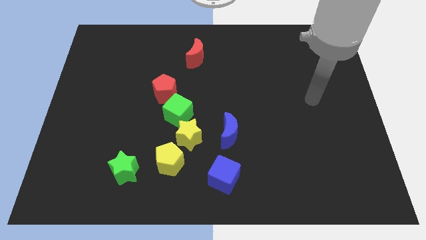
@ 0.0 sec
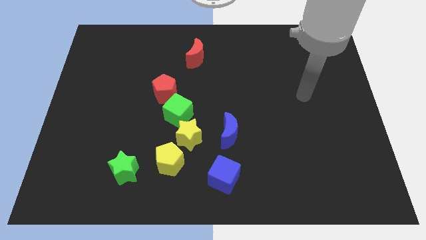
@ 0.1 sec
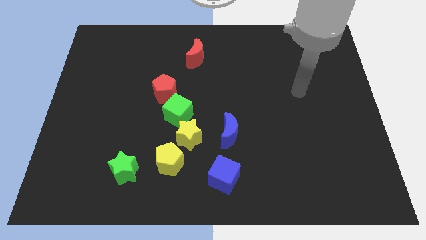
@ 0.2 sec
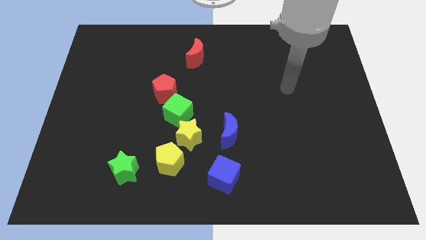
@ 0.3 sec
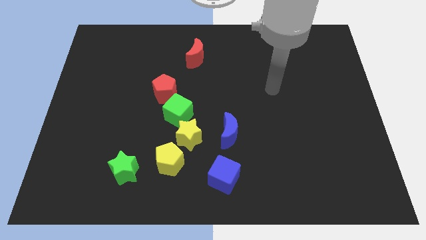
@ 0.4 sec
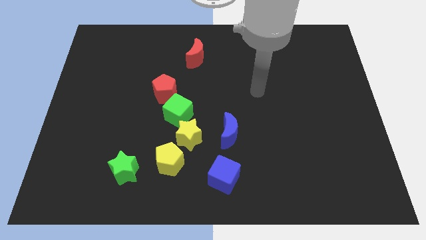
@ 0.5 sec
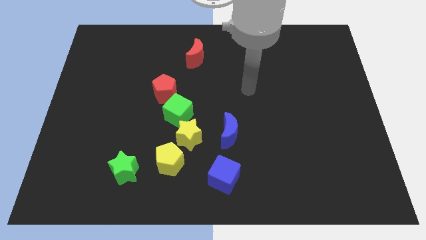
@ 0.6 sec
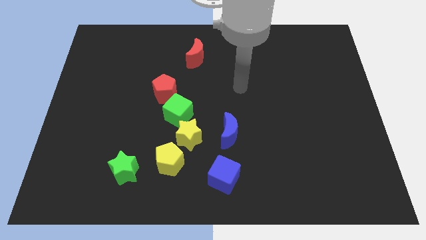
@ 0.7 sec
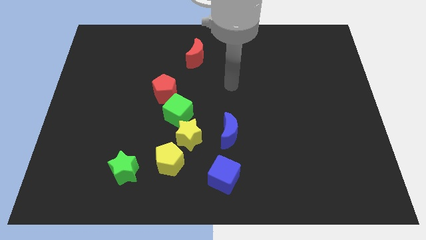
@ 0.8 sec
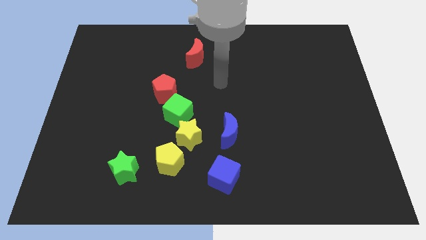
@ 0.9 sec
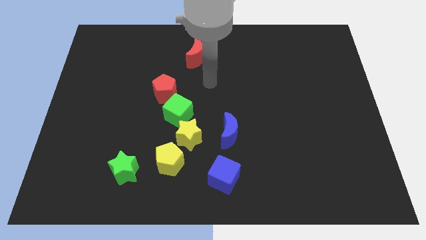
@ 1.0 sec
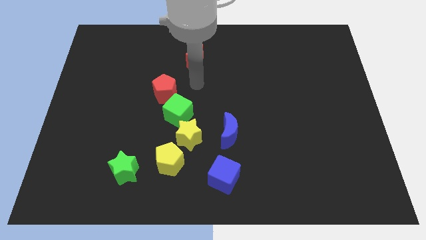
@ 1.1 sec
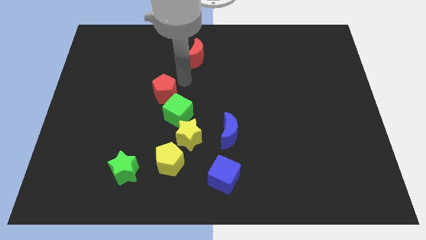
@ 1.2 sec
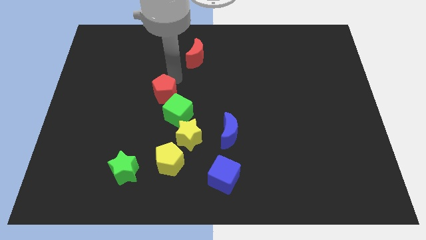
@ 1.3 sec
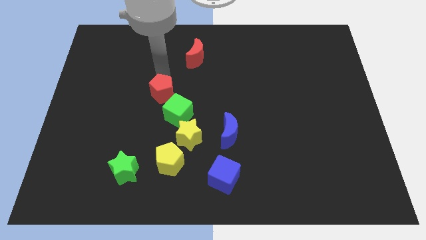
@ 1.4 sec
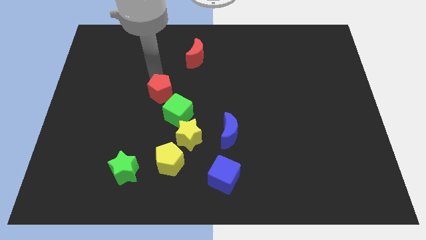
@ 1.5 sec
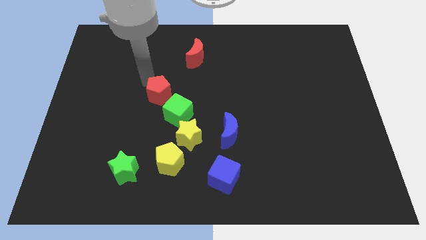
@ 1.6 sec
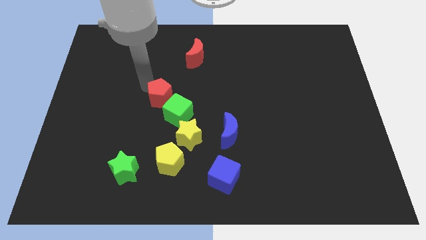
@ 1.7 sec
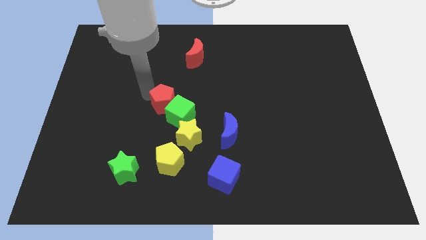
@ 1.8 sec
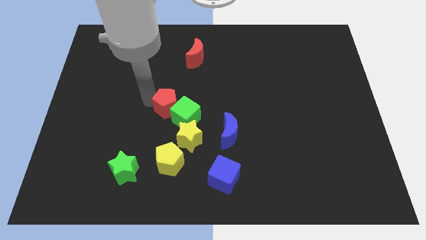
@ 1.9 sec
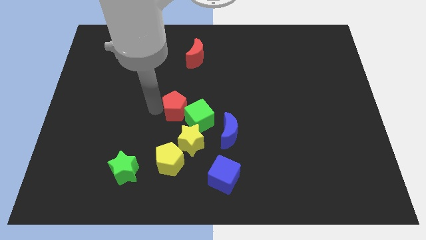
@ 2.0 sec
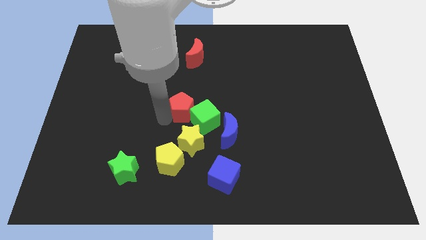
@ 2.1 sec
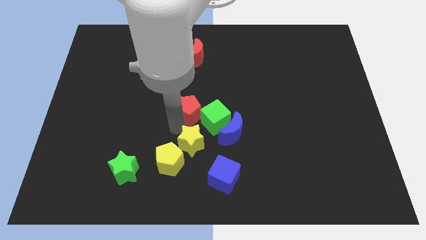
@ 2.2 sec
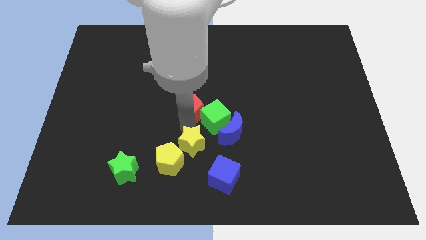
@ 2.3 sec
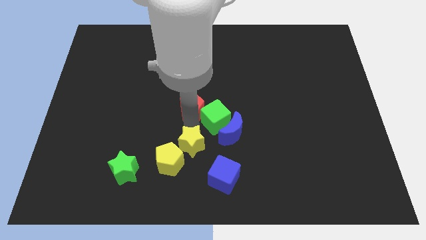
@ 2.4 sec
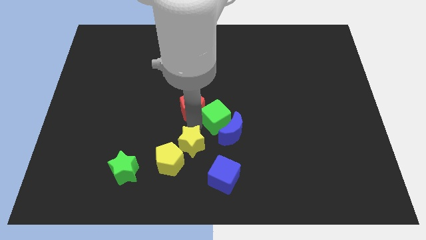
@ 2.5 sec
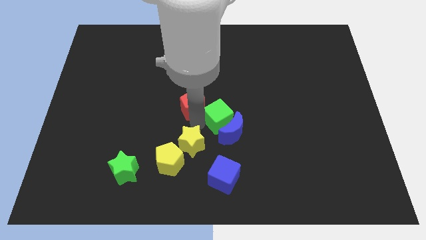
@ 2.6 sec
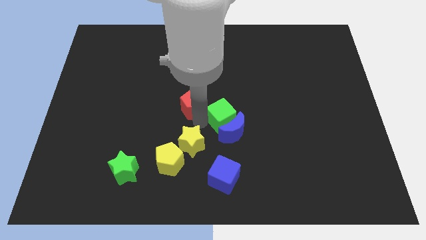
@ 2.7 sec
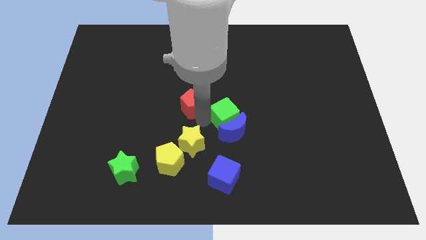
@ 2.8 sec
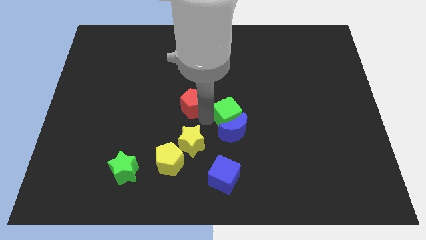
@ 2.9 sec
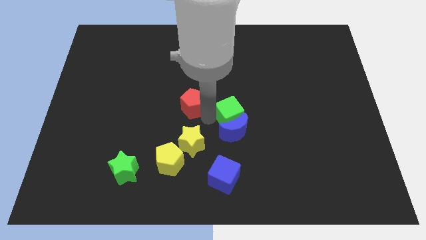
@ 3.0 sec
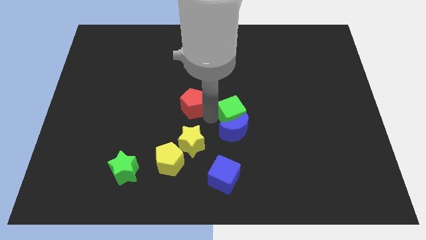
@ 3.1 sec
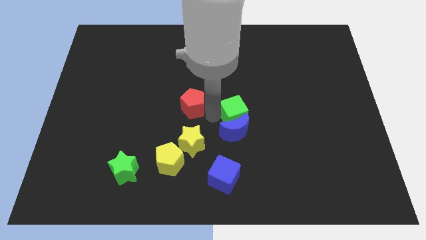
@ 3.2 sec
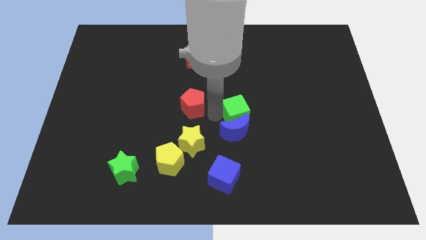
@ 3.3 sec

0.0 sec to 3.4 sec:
move the green cube away from the yellow star and red pentagon

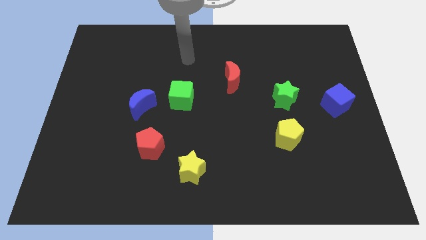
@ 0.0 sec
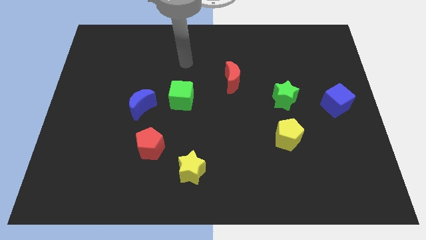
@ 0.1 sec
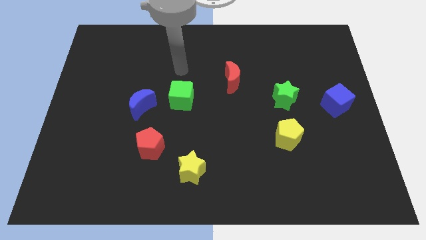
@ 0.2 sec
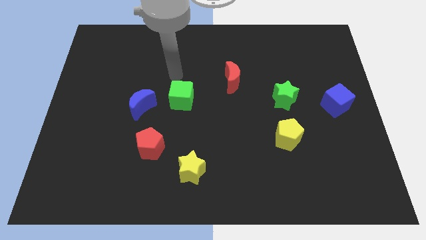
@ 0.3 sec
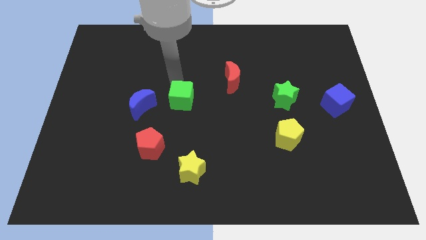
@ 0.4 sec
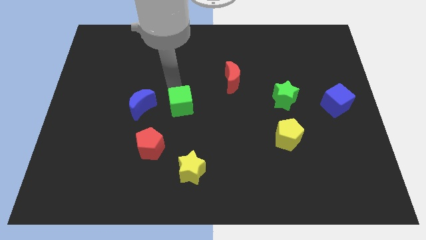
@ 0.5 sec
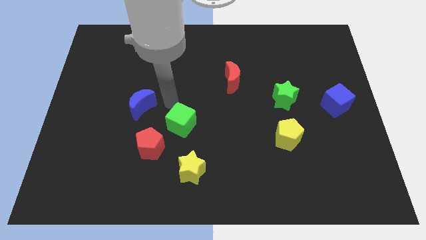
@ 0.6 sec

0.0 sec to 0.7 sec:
separate the blue moon from the green cube

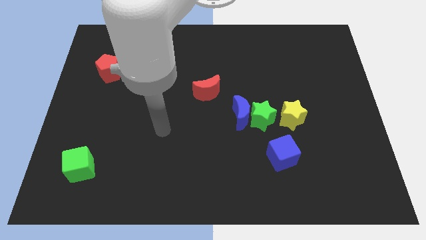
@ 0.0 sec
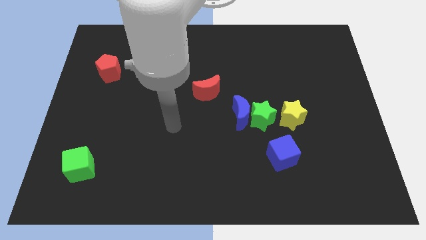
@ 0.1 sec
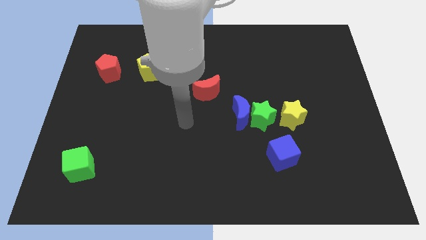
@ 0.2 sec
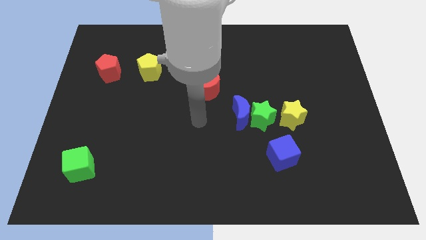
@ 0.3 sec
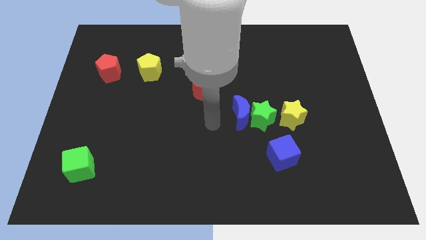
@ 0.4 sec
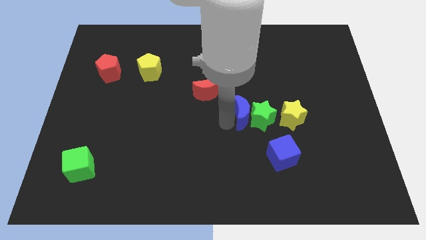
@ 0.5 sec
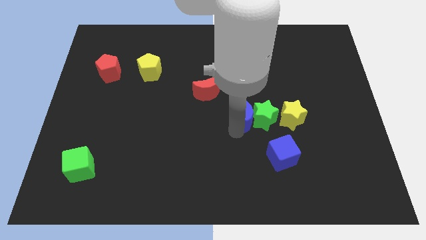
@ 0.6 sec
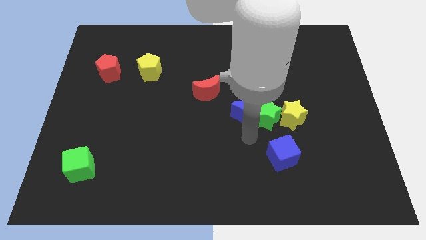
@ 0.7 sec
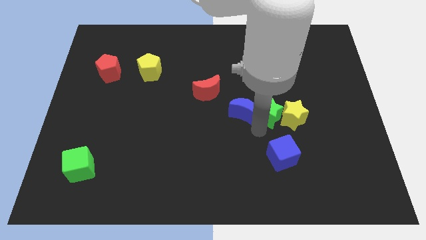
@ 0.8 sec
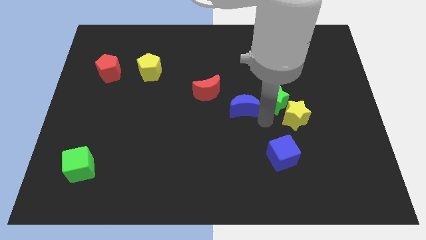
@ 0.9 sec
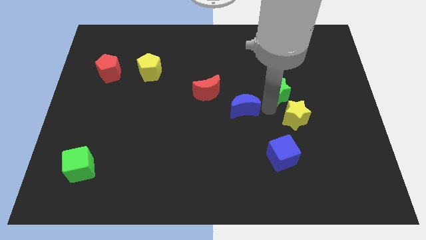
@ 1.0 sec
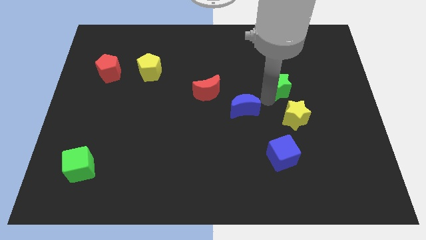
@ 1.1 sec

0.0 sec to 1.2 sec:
move the blue moon away from the green star

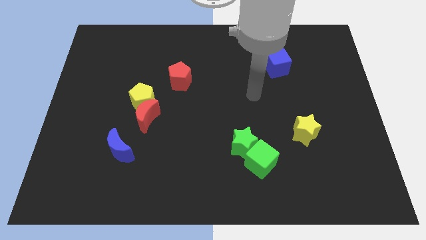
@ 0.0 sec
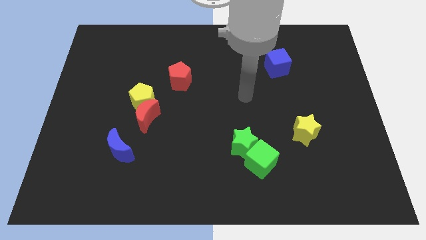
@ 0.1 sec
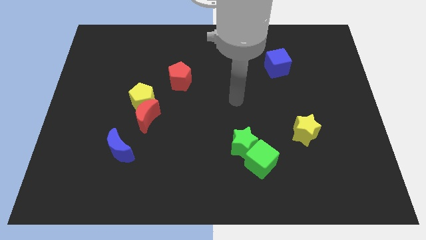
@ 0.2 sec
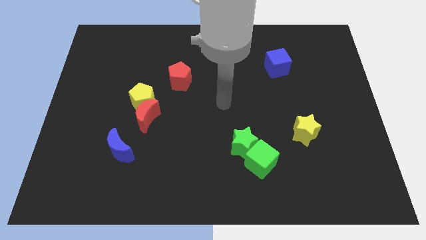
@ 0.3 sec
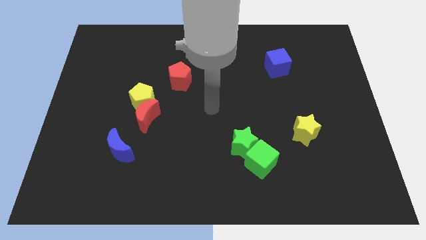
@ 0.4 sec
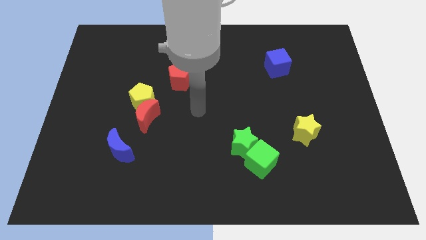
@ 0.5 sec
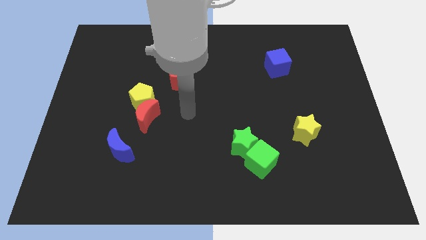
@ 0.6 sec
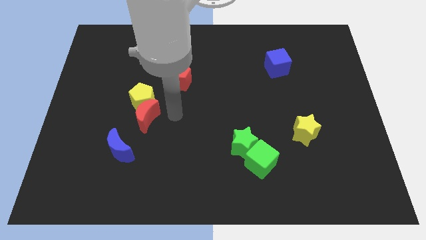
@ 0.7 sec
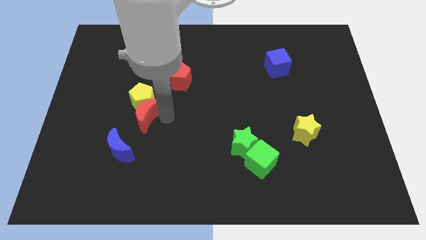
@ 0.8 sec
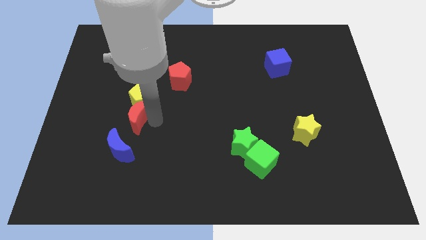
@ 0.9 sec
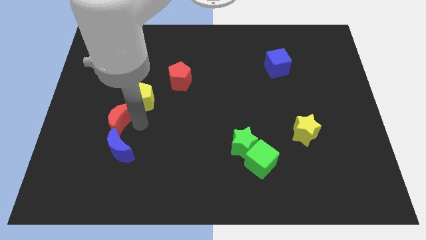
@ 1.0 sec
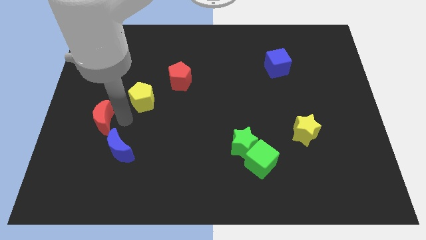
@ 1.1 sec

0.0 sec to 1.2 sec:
separate the yellow pentagon from the red moon

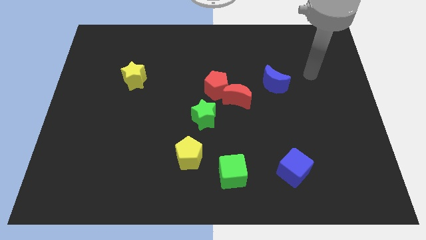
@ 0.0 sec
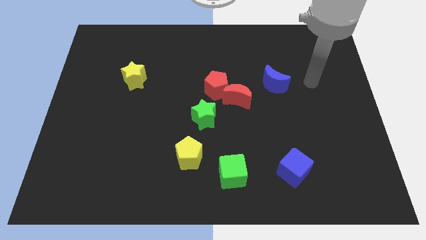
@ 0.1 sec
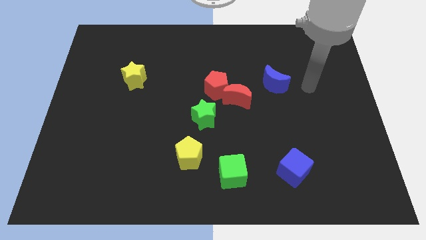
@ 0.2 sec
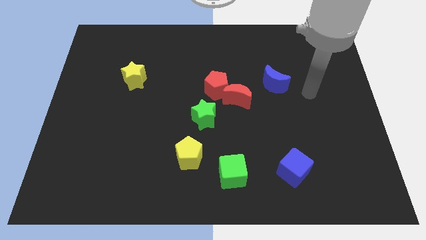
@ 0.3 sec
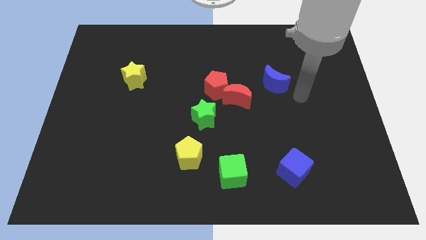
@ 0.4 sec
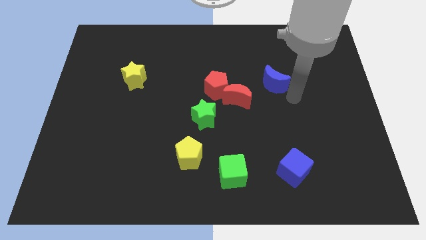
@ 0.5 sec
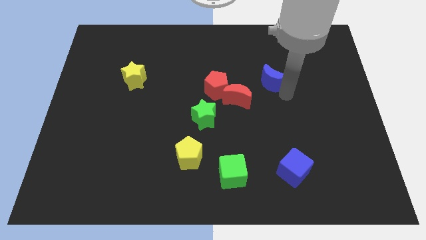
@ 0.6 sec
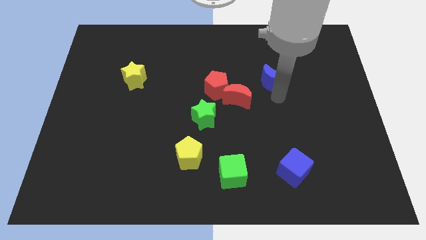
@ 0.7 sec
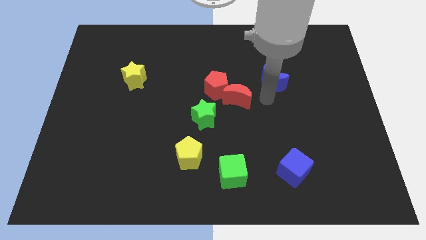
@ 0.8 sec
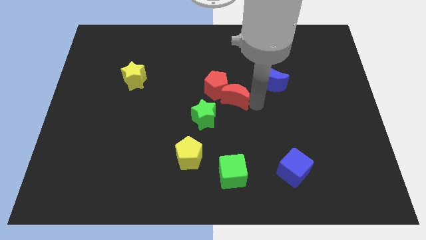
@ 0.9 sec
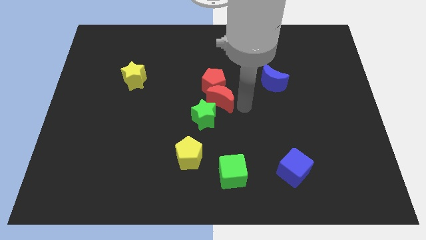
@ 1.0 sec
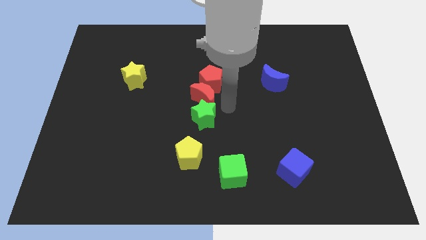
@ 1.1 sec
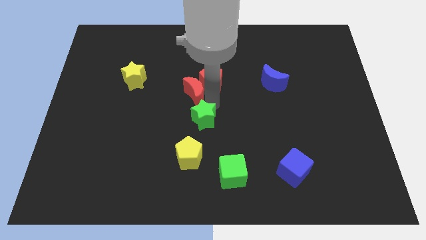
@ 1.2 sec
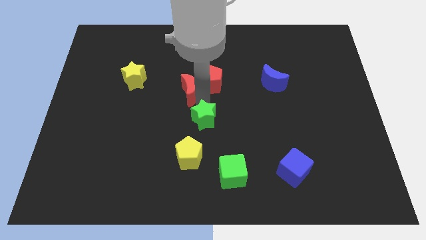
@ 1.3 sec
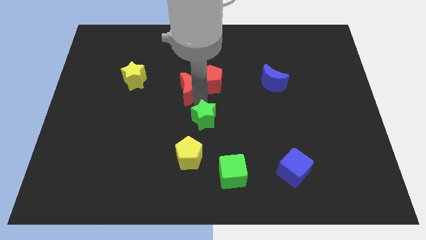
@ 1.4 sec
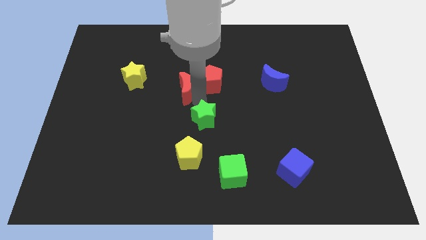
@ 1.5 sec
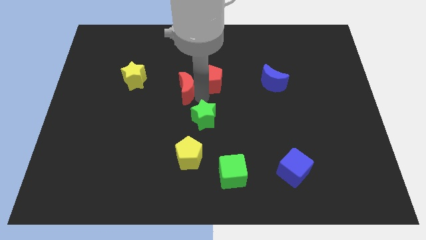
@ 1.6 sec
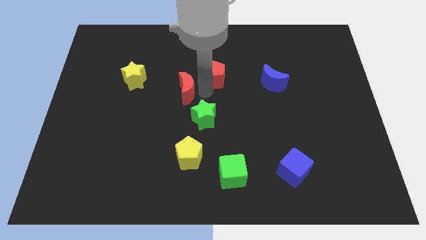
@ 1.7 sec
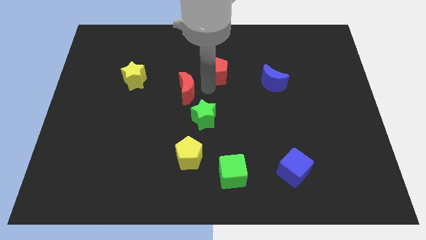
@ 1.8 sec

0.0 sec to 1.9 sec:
move the red pentagon away from the red moon and green star

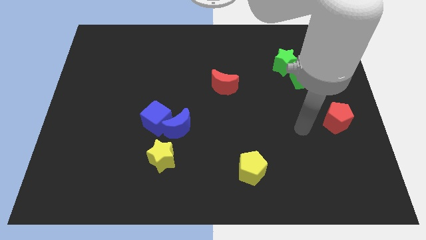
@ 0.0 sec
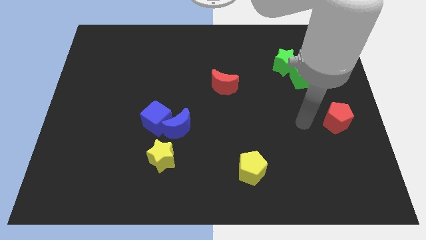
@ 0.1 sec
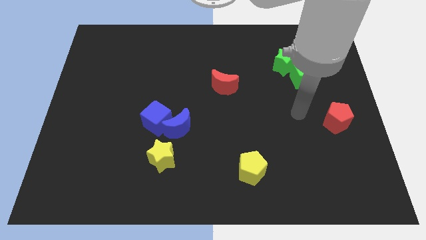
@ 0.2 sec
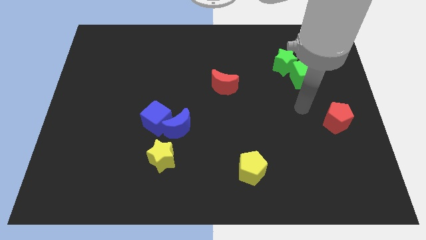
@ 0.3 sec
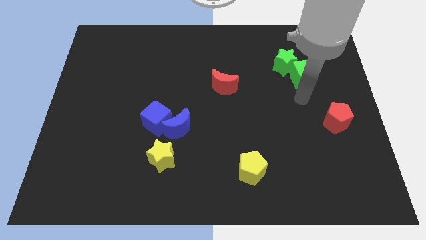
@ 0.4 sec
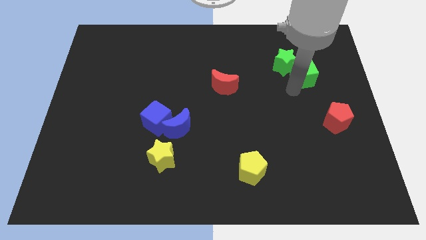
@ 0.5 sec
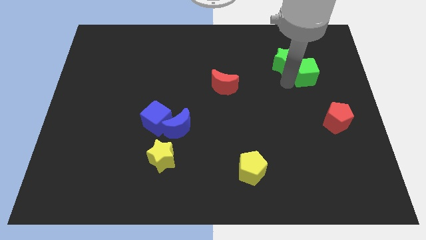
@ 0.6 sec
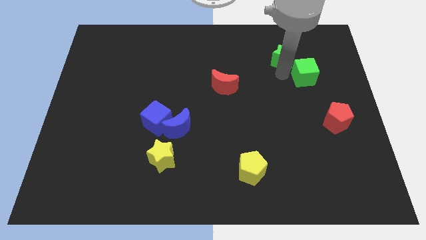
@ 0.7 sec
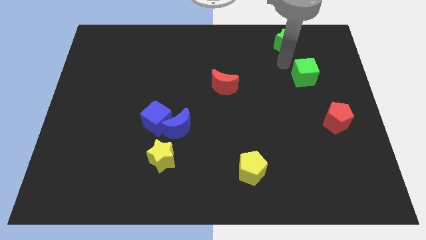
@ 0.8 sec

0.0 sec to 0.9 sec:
move the green cube away from the green star

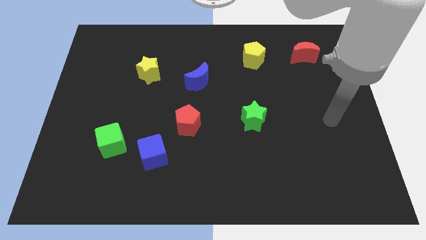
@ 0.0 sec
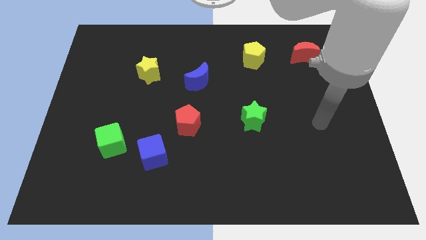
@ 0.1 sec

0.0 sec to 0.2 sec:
separate the blue cube from the green cube
